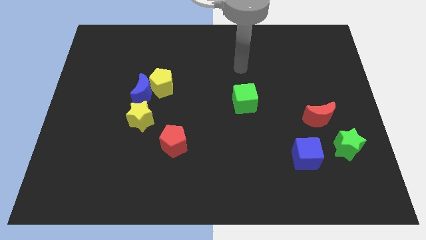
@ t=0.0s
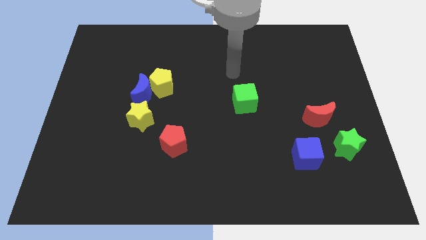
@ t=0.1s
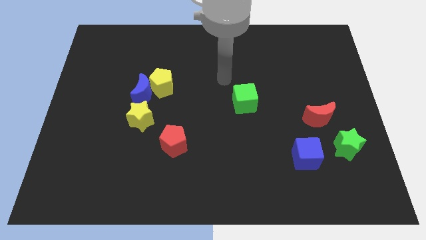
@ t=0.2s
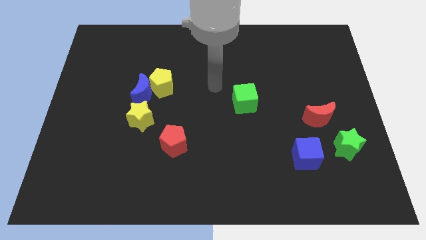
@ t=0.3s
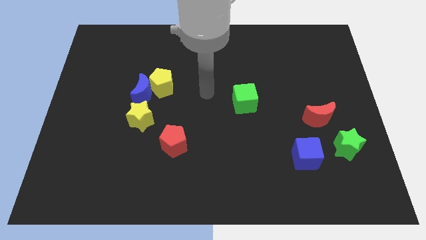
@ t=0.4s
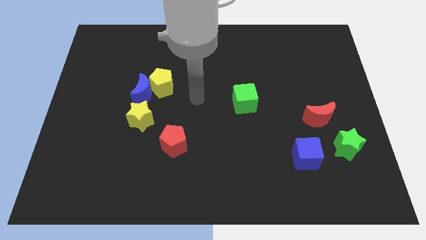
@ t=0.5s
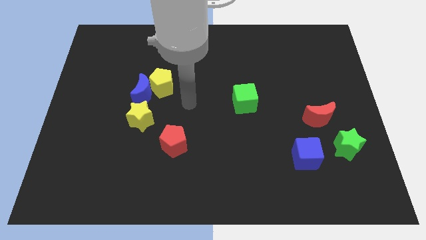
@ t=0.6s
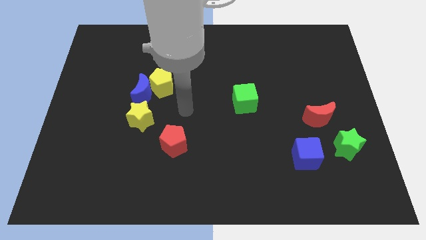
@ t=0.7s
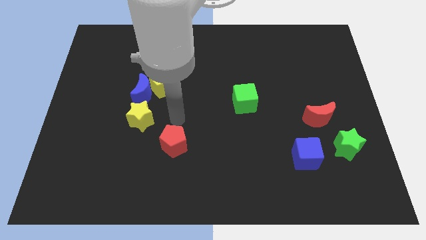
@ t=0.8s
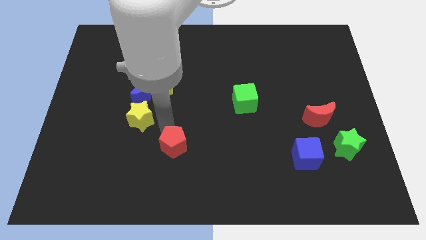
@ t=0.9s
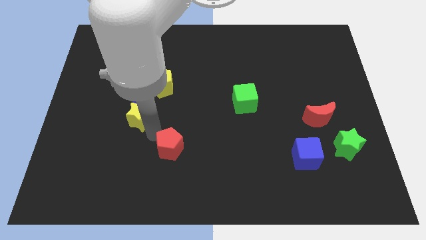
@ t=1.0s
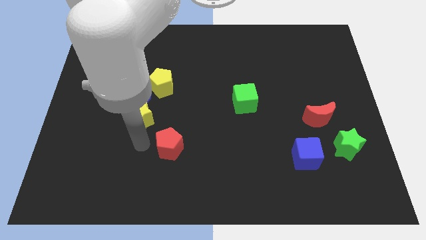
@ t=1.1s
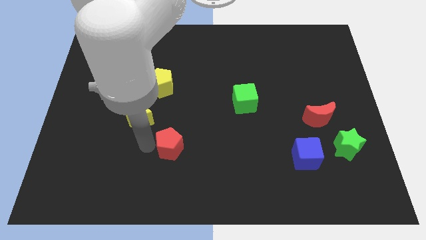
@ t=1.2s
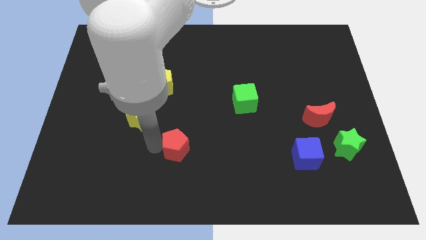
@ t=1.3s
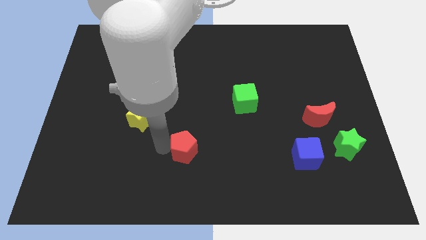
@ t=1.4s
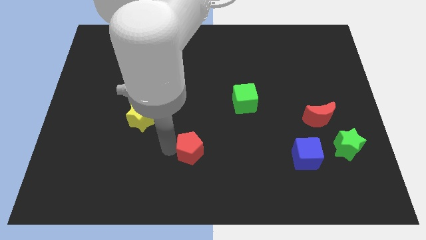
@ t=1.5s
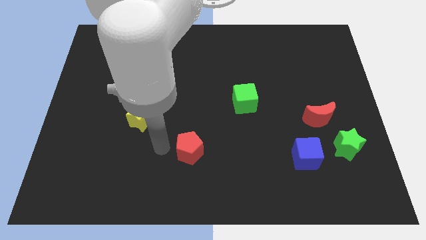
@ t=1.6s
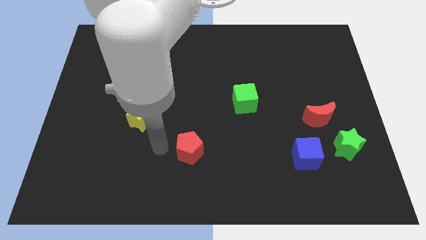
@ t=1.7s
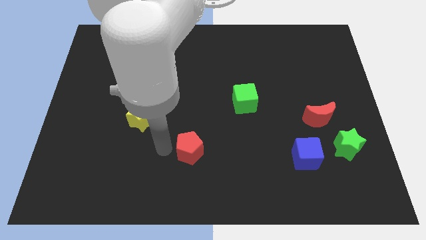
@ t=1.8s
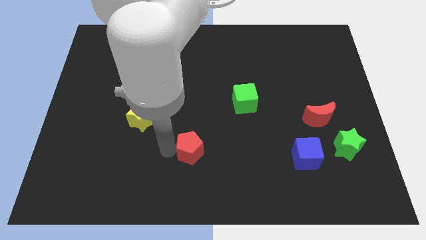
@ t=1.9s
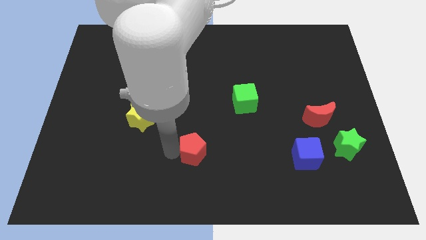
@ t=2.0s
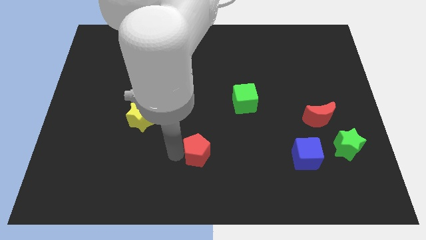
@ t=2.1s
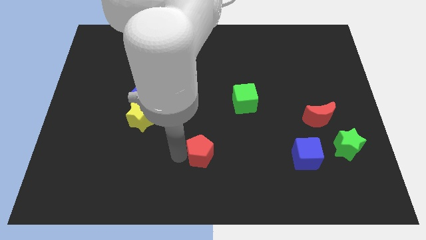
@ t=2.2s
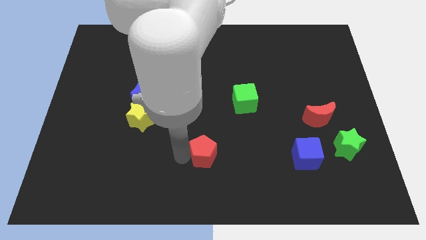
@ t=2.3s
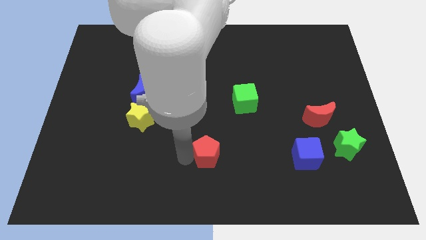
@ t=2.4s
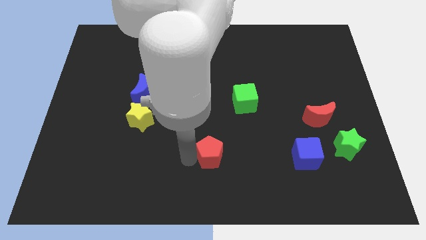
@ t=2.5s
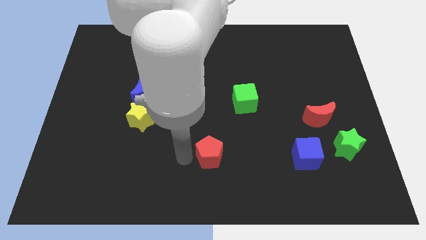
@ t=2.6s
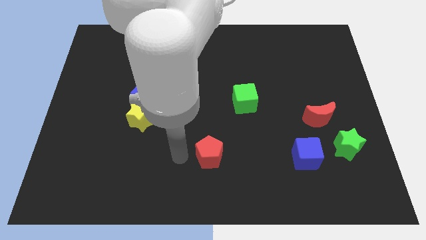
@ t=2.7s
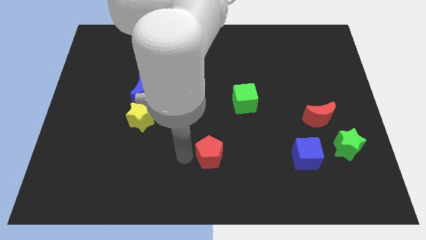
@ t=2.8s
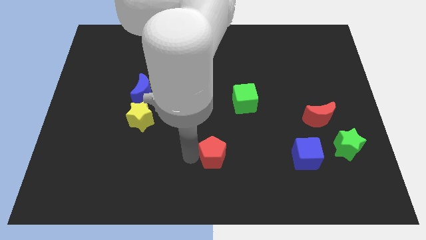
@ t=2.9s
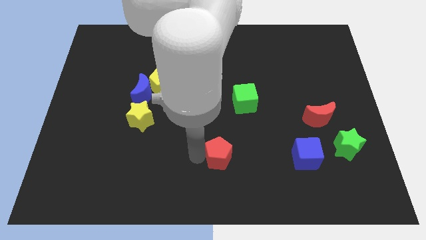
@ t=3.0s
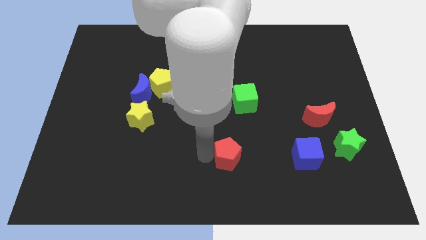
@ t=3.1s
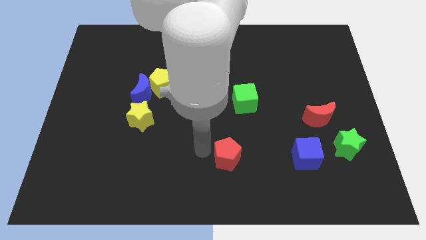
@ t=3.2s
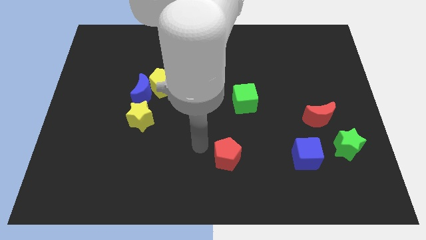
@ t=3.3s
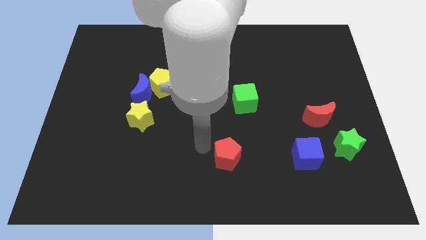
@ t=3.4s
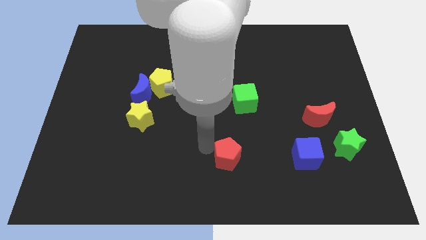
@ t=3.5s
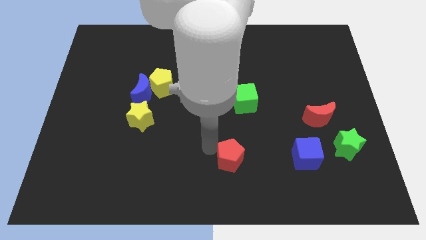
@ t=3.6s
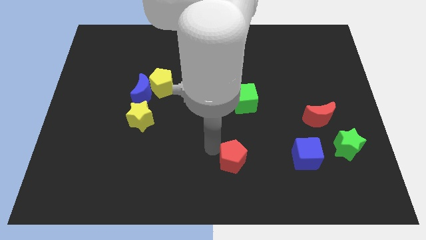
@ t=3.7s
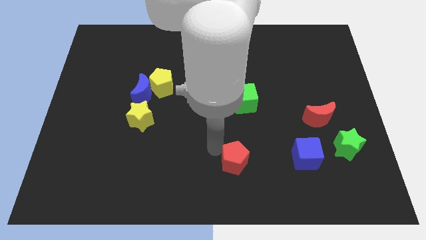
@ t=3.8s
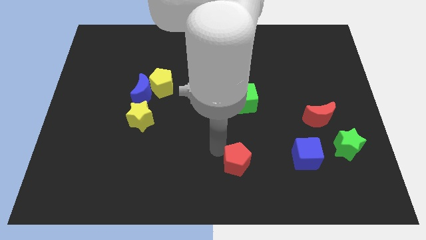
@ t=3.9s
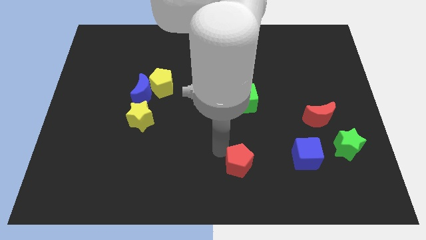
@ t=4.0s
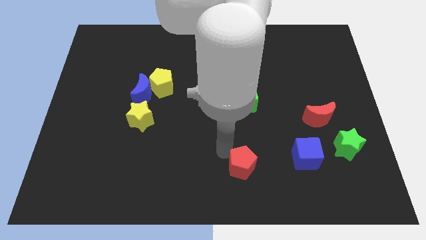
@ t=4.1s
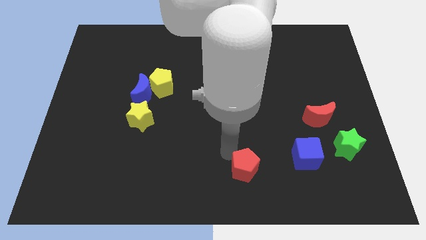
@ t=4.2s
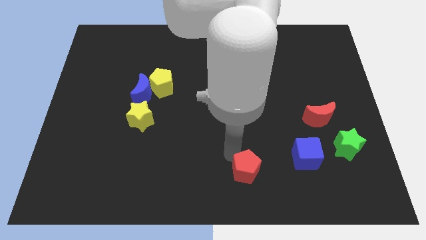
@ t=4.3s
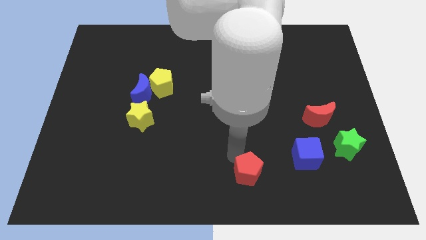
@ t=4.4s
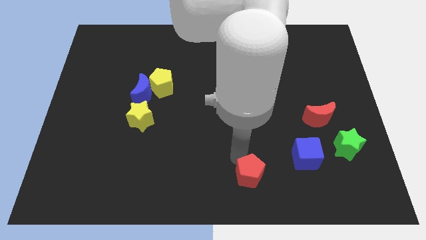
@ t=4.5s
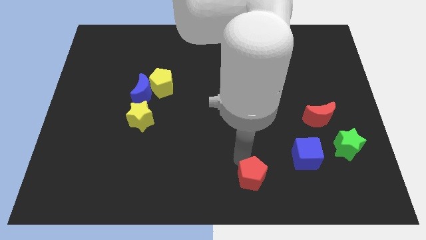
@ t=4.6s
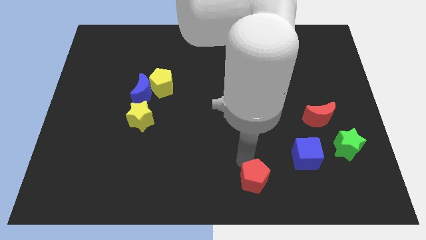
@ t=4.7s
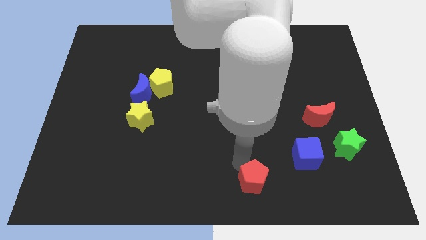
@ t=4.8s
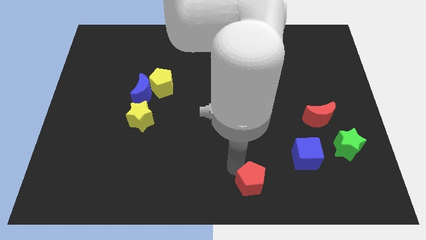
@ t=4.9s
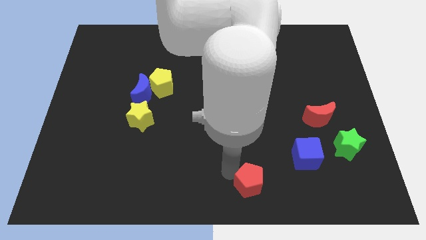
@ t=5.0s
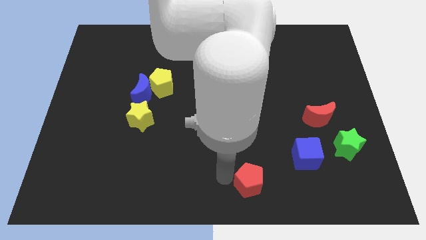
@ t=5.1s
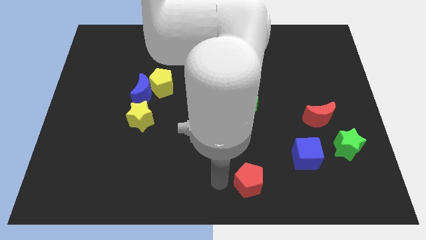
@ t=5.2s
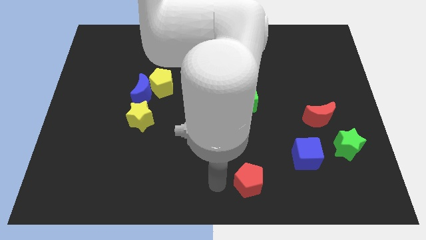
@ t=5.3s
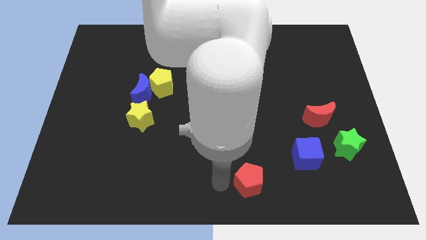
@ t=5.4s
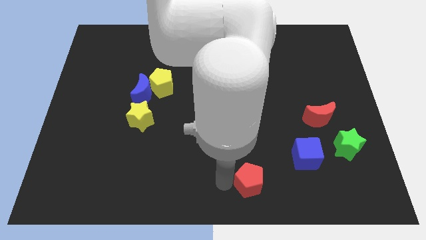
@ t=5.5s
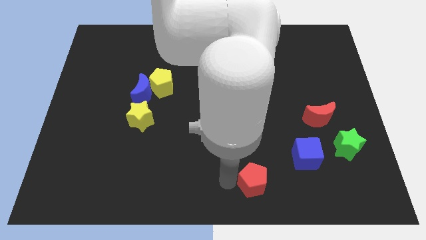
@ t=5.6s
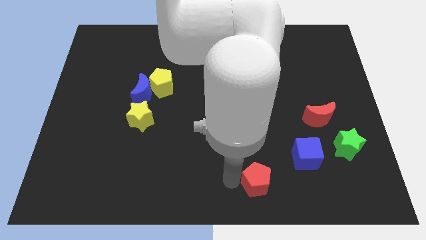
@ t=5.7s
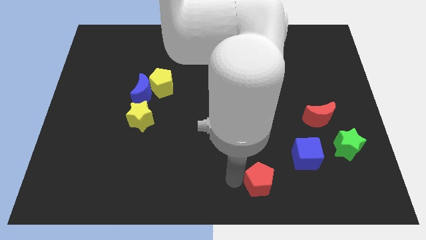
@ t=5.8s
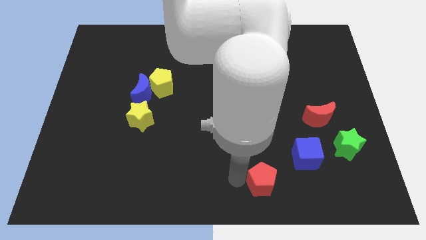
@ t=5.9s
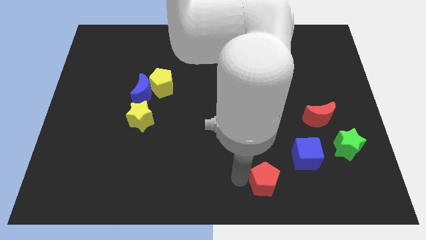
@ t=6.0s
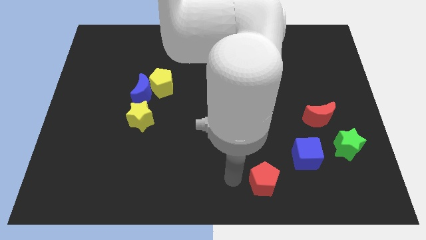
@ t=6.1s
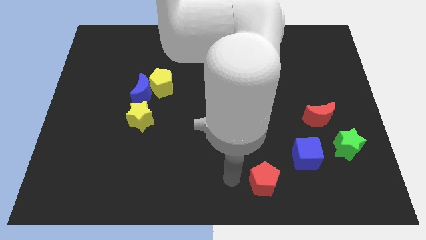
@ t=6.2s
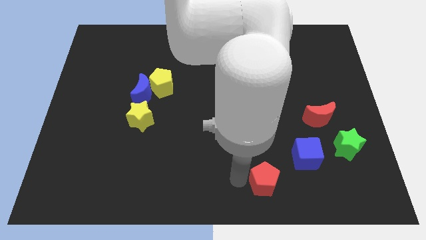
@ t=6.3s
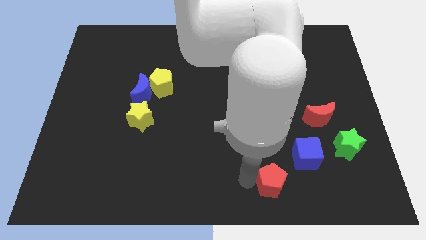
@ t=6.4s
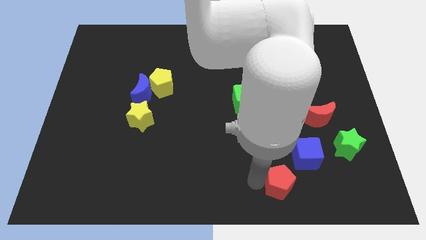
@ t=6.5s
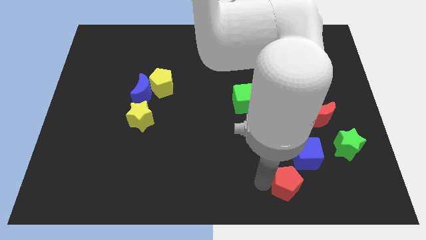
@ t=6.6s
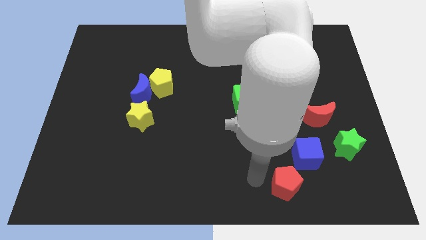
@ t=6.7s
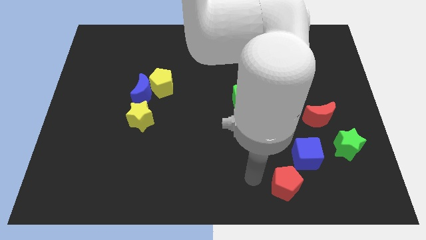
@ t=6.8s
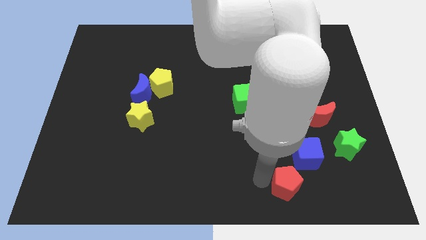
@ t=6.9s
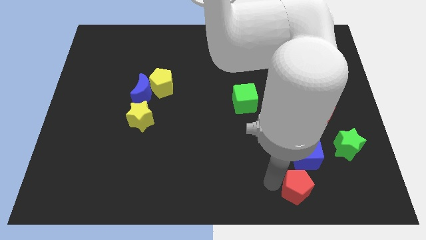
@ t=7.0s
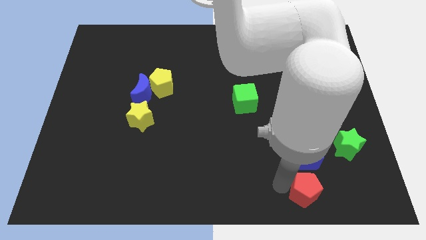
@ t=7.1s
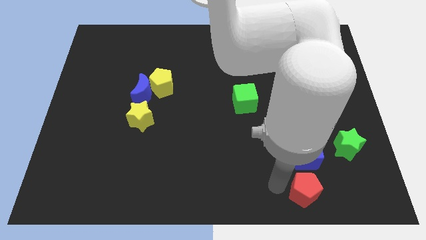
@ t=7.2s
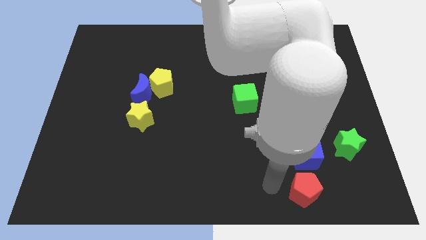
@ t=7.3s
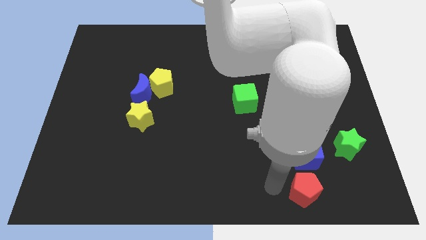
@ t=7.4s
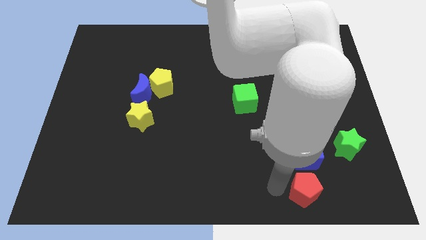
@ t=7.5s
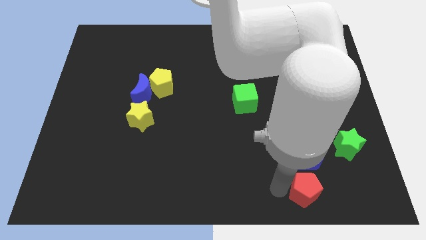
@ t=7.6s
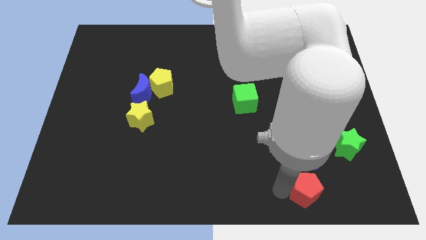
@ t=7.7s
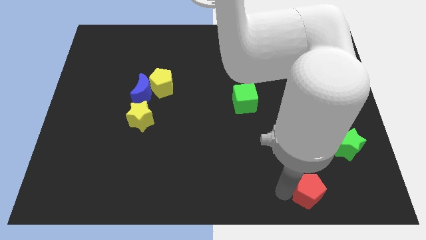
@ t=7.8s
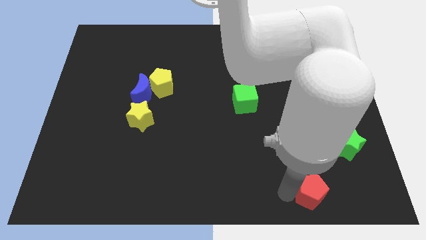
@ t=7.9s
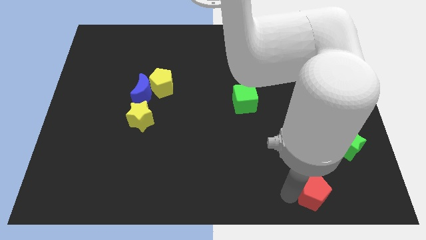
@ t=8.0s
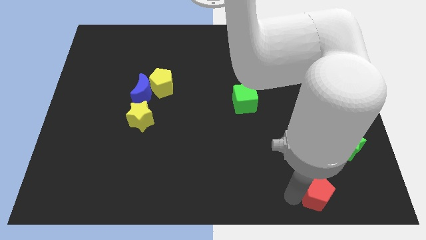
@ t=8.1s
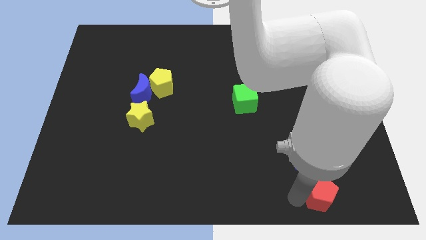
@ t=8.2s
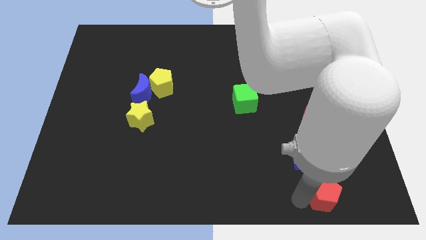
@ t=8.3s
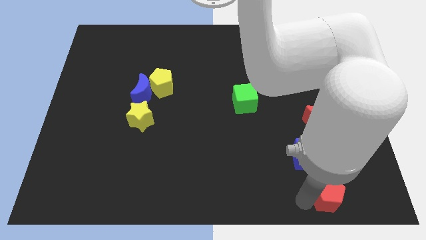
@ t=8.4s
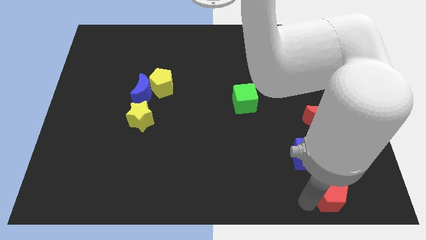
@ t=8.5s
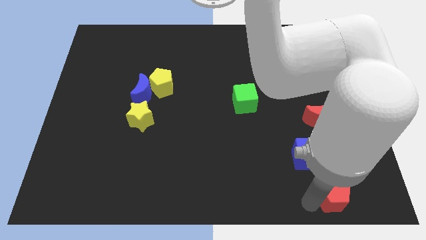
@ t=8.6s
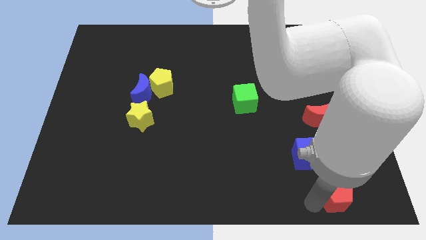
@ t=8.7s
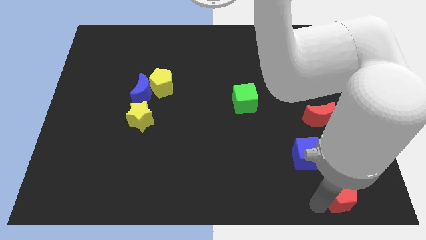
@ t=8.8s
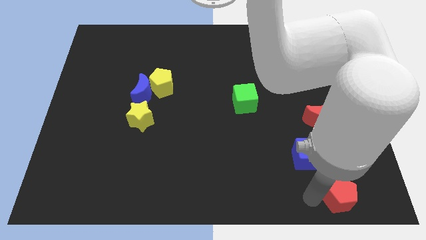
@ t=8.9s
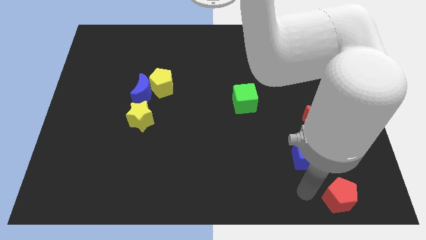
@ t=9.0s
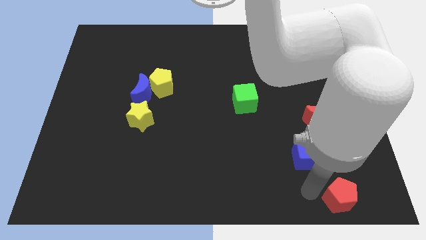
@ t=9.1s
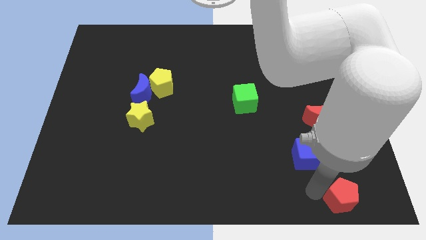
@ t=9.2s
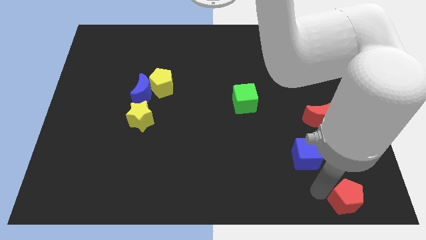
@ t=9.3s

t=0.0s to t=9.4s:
move the red pentagon to the bottom right of the board
